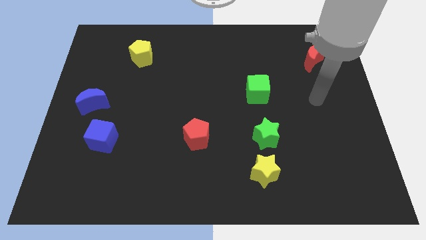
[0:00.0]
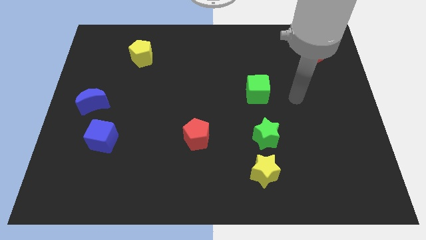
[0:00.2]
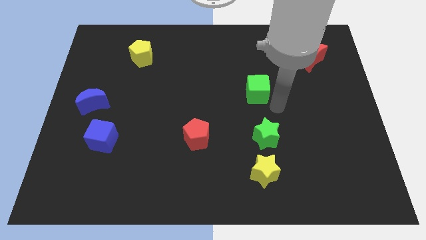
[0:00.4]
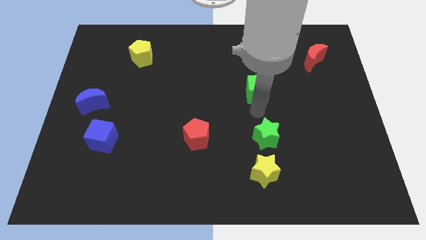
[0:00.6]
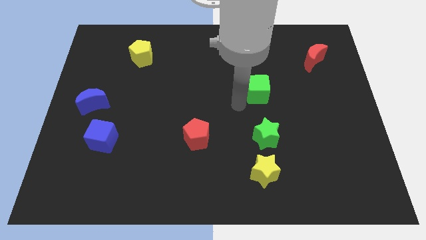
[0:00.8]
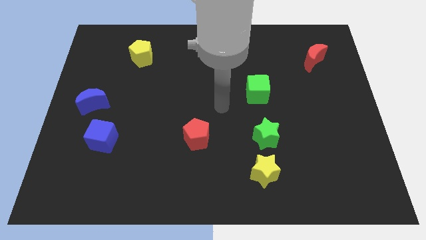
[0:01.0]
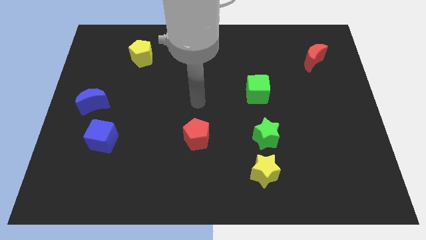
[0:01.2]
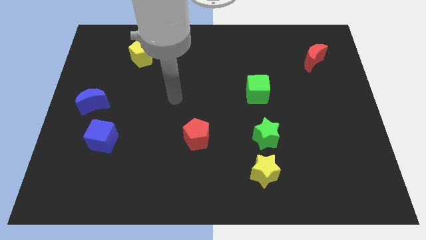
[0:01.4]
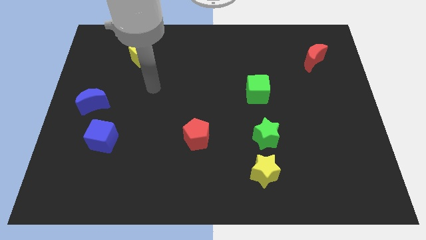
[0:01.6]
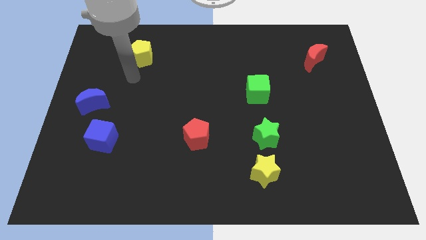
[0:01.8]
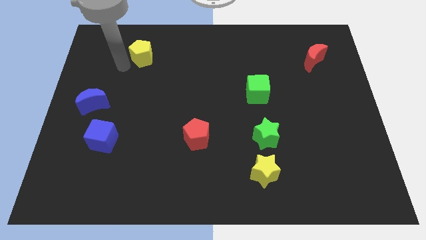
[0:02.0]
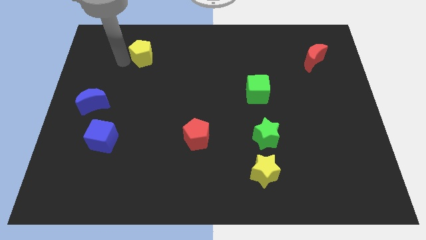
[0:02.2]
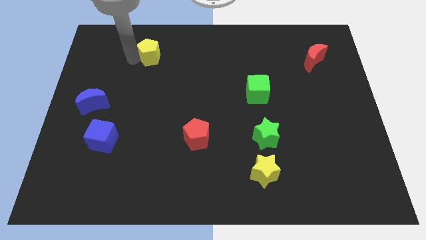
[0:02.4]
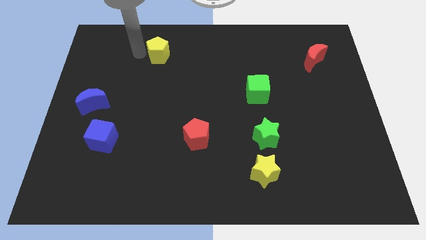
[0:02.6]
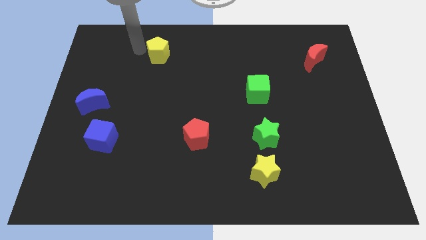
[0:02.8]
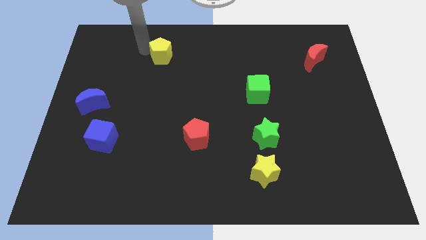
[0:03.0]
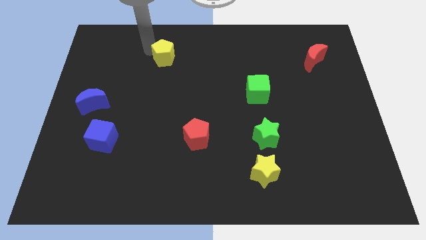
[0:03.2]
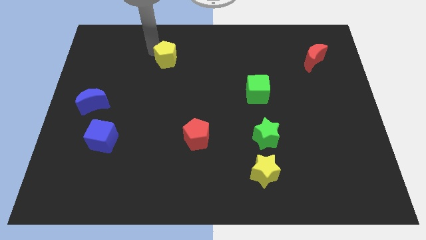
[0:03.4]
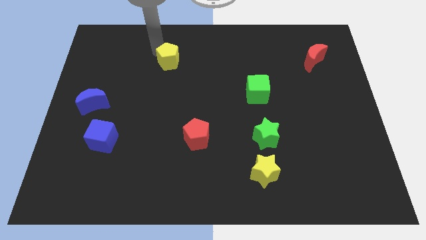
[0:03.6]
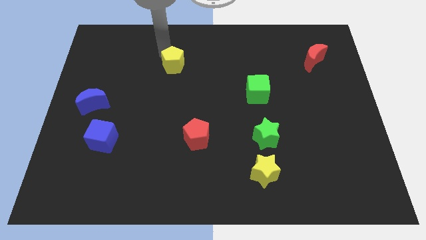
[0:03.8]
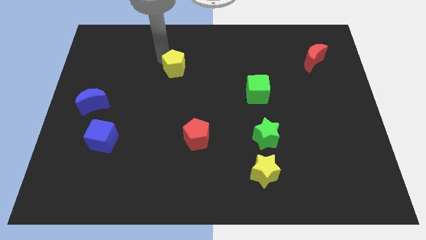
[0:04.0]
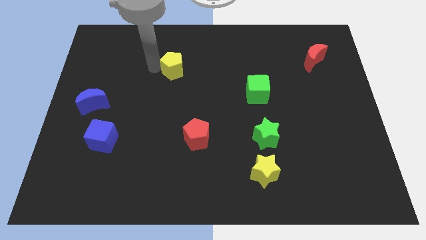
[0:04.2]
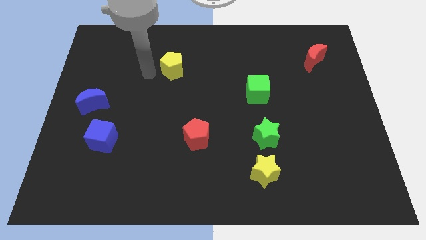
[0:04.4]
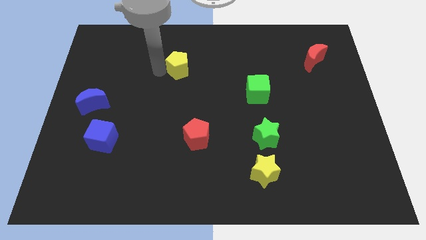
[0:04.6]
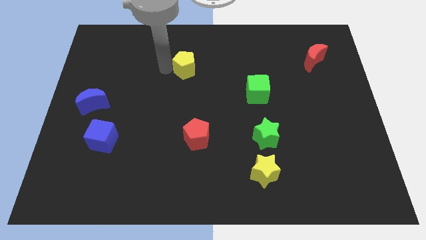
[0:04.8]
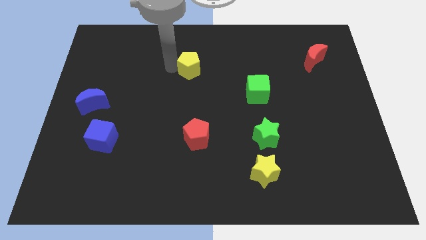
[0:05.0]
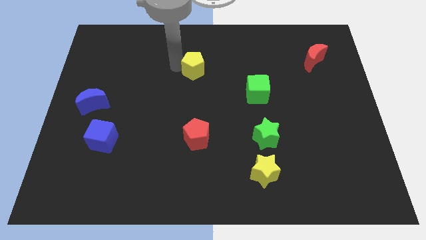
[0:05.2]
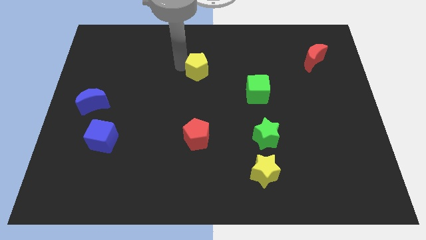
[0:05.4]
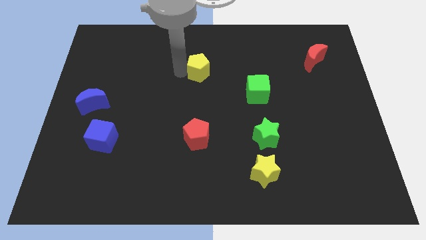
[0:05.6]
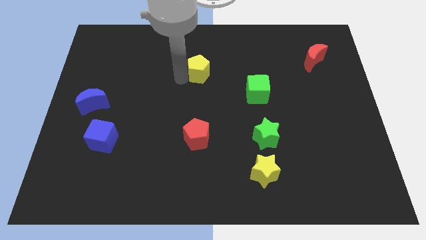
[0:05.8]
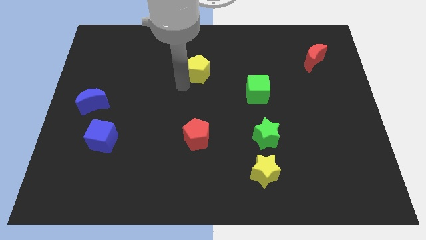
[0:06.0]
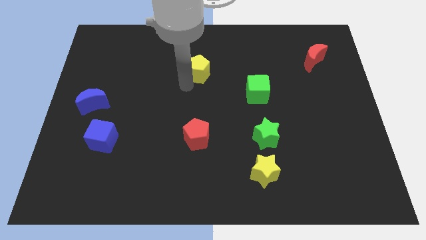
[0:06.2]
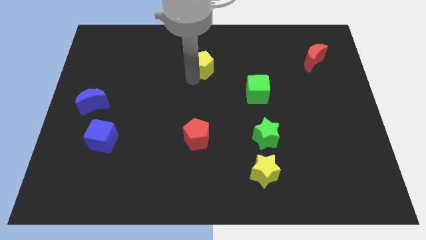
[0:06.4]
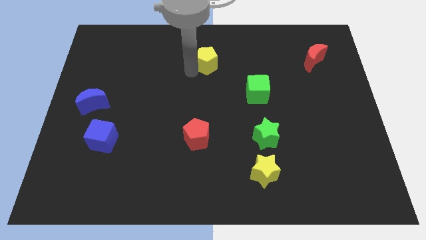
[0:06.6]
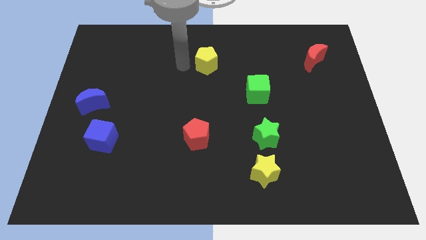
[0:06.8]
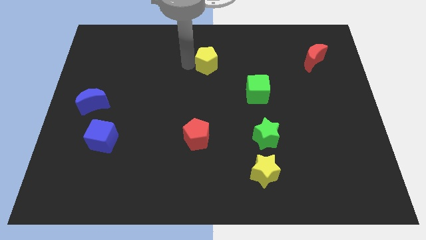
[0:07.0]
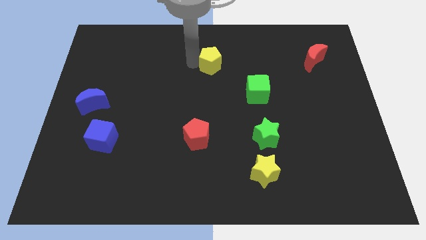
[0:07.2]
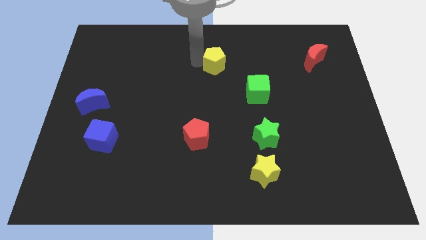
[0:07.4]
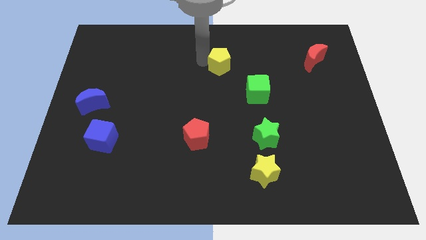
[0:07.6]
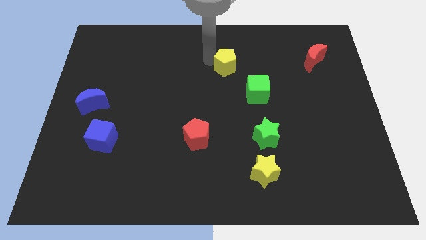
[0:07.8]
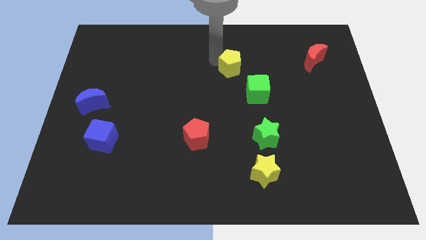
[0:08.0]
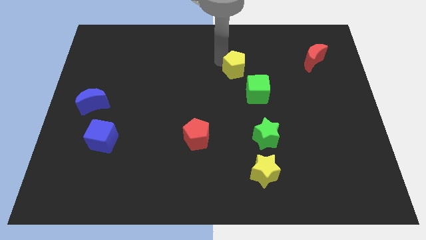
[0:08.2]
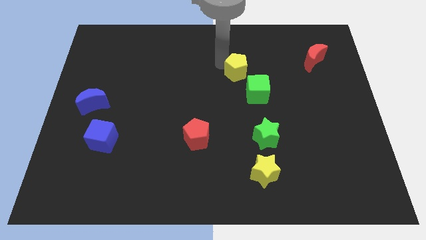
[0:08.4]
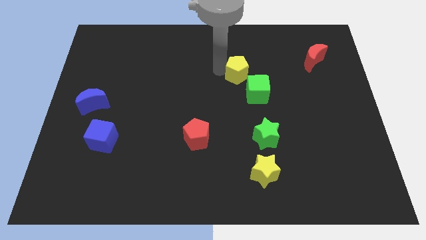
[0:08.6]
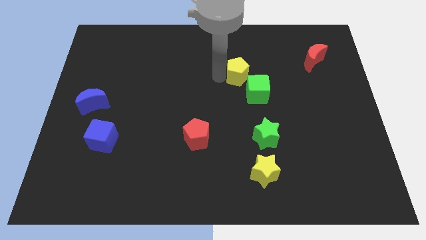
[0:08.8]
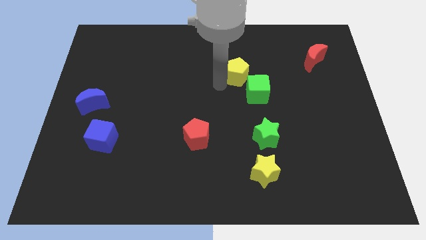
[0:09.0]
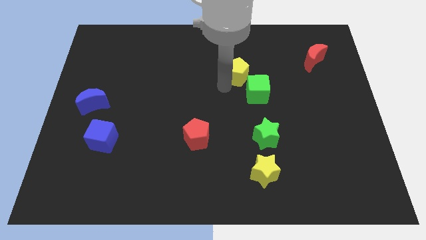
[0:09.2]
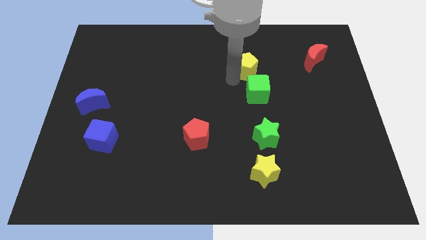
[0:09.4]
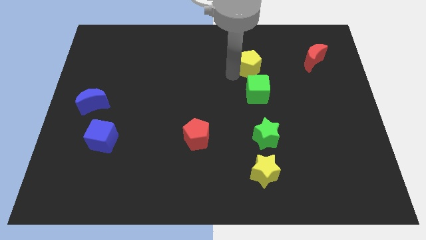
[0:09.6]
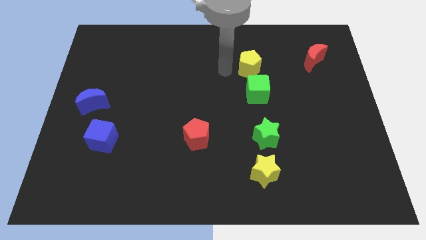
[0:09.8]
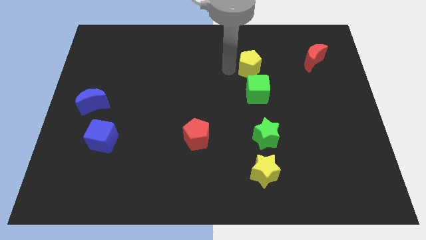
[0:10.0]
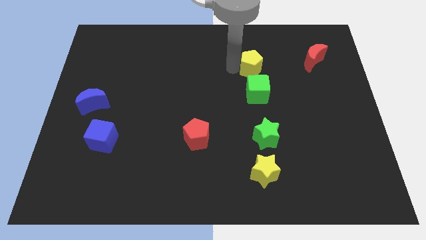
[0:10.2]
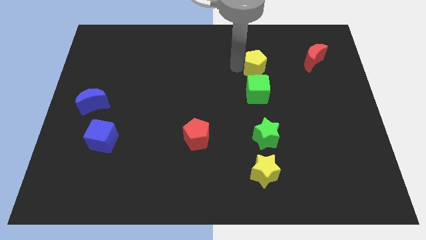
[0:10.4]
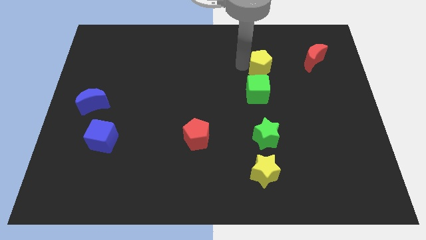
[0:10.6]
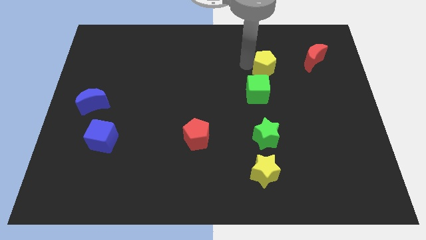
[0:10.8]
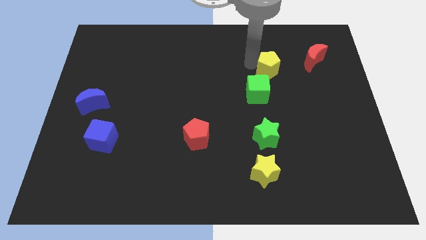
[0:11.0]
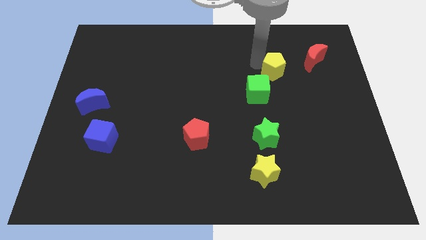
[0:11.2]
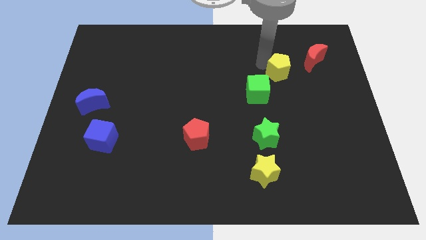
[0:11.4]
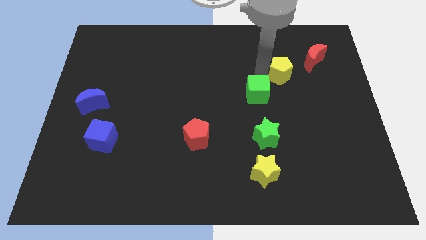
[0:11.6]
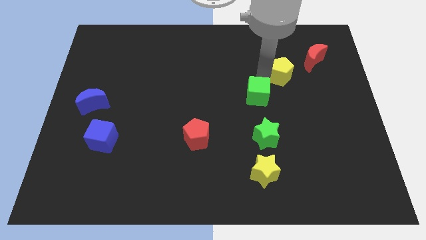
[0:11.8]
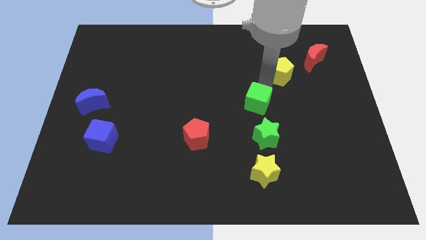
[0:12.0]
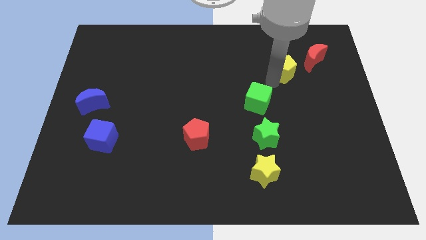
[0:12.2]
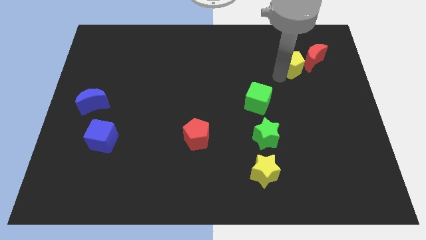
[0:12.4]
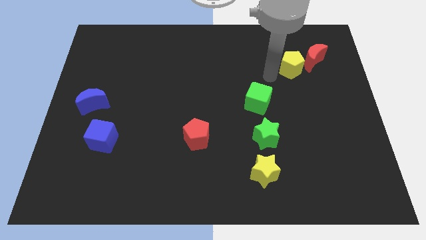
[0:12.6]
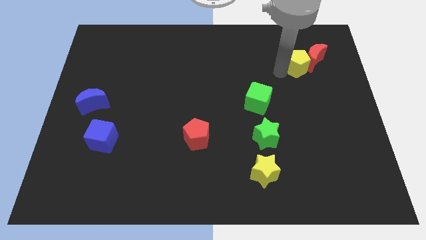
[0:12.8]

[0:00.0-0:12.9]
push the yellow pentagon close to the red moon
